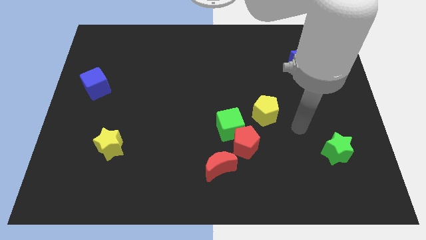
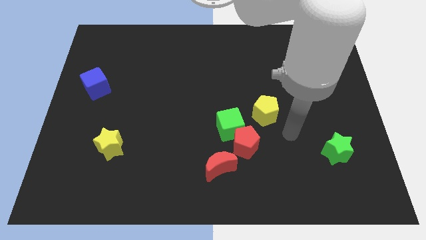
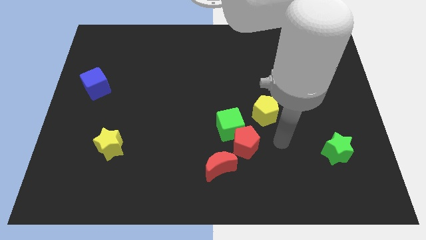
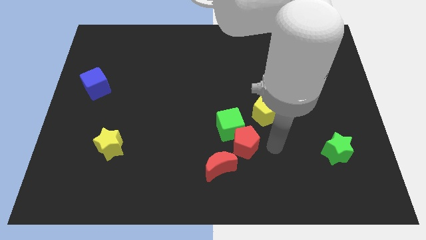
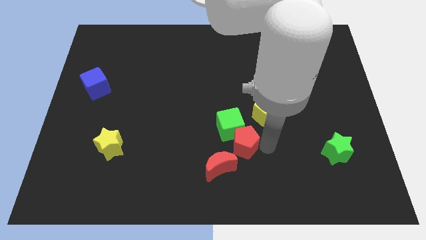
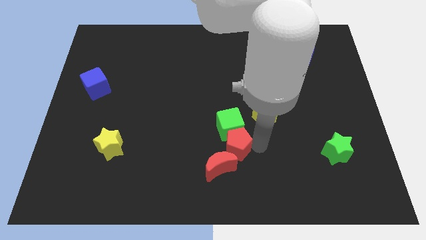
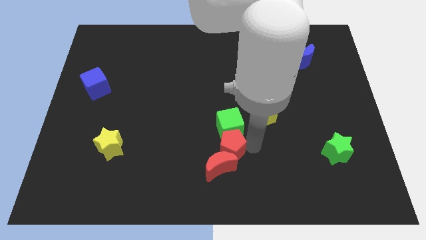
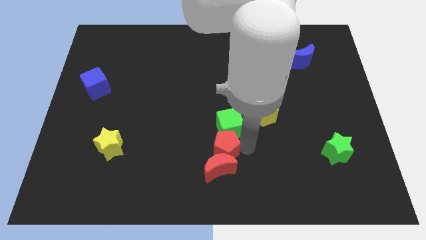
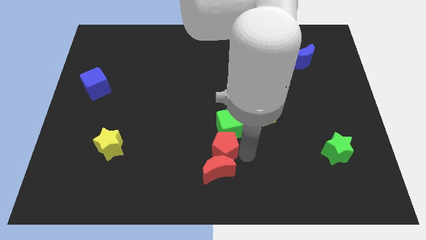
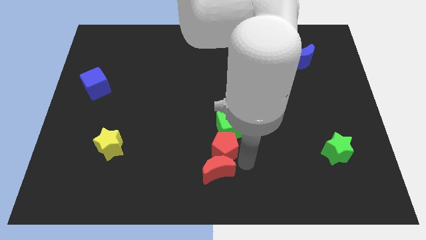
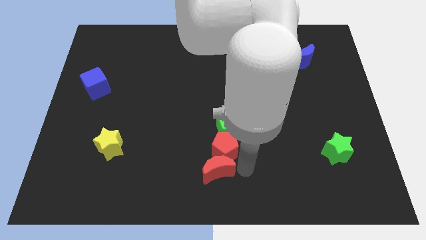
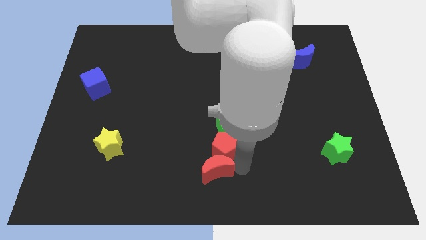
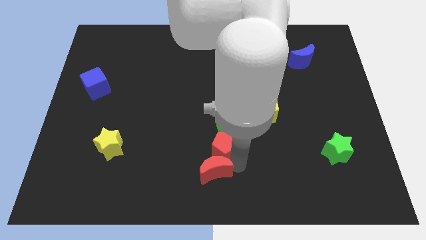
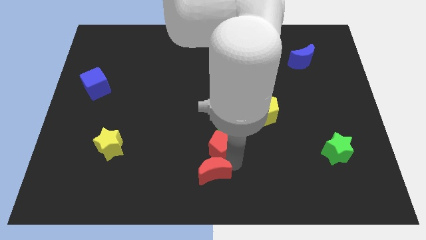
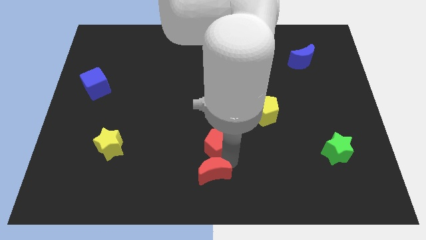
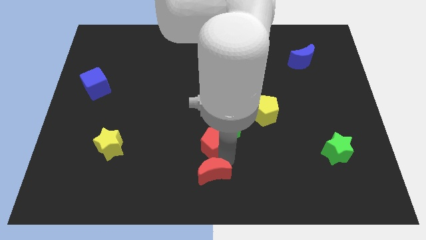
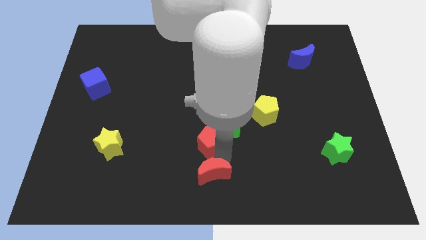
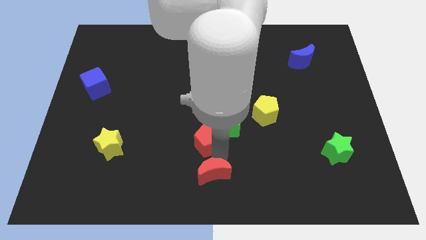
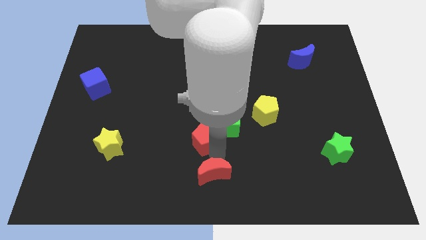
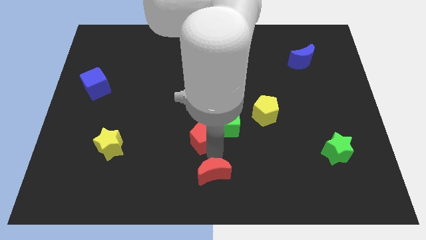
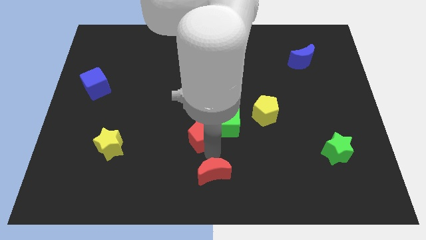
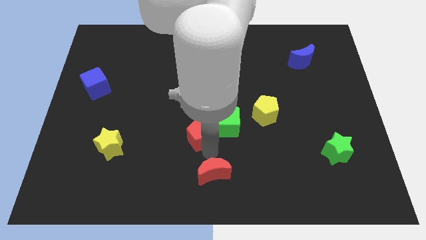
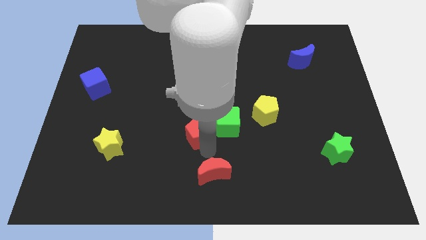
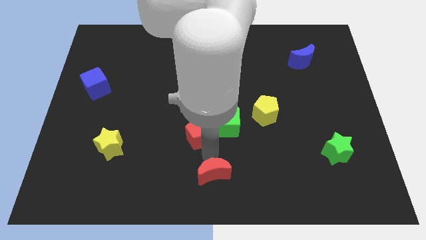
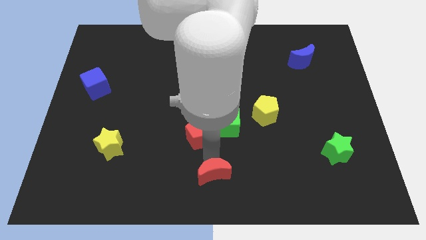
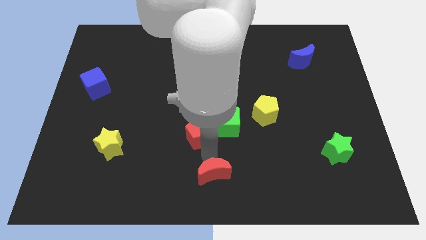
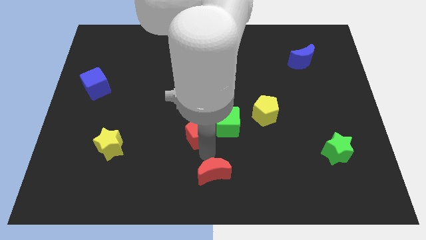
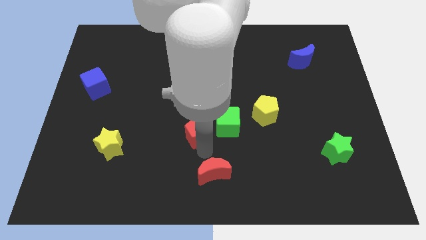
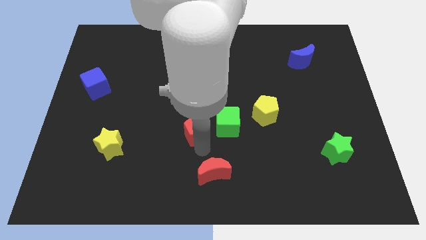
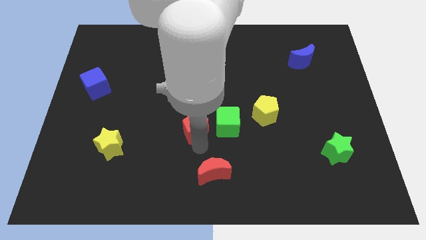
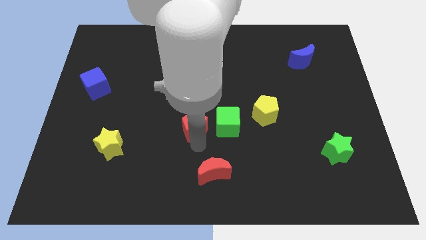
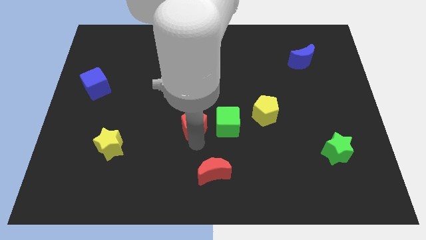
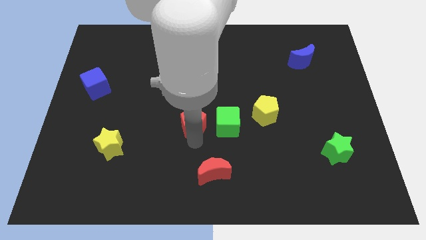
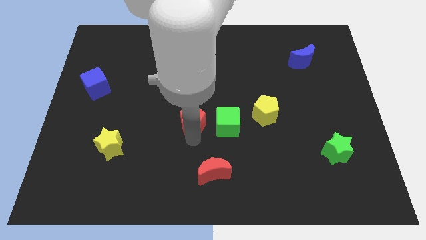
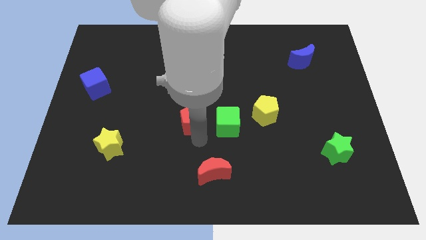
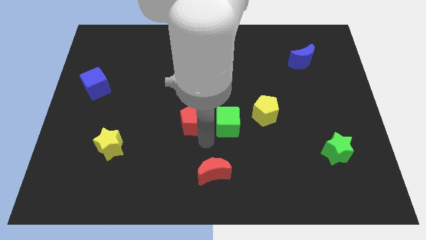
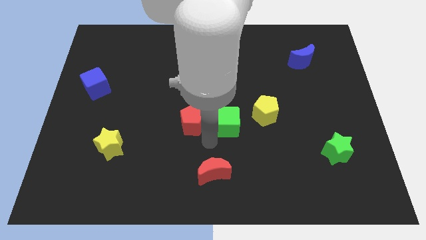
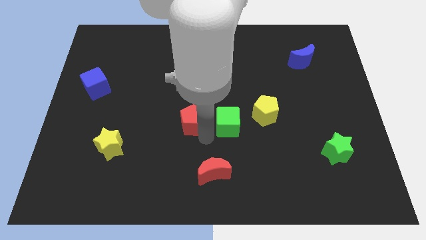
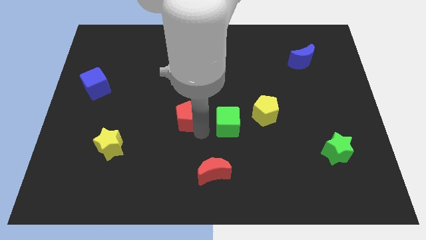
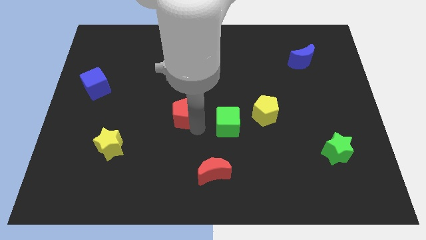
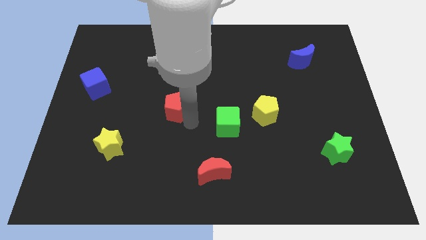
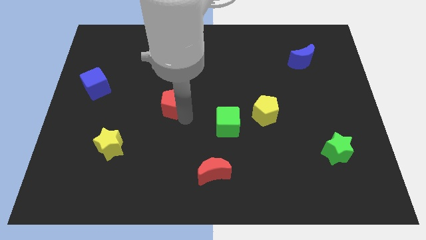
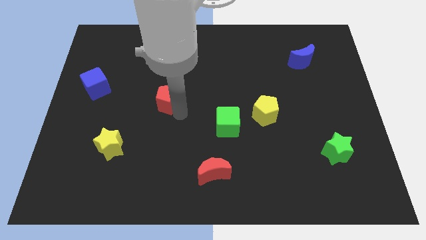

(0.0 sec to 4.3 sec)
move the red pentagon diagonally upwards and left

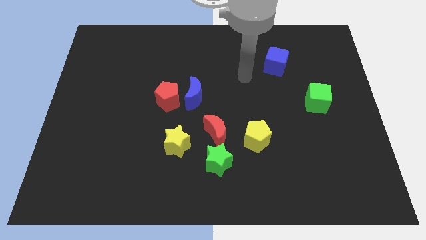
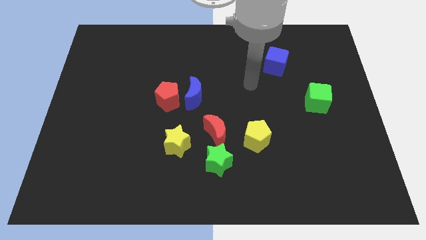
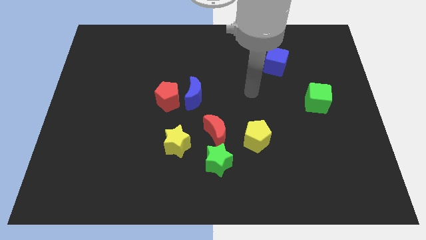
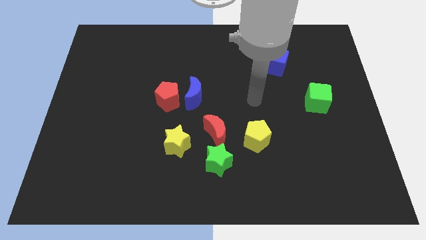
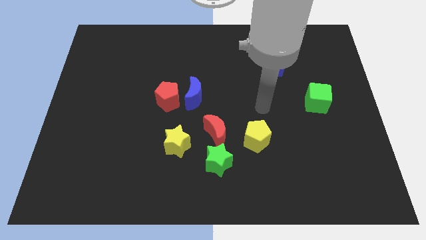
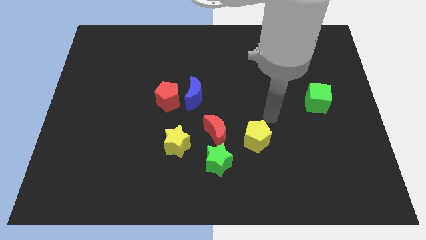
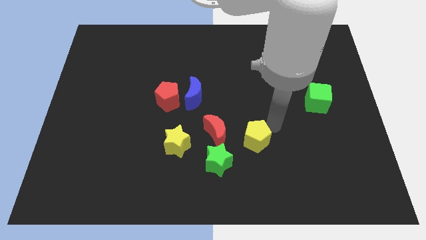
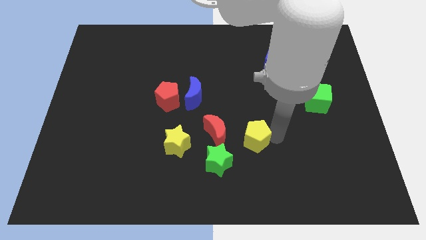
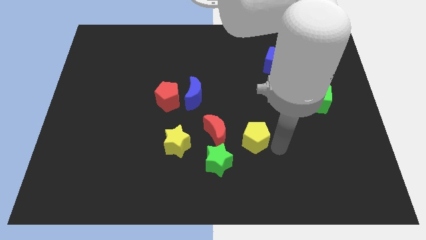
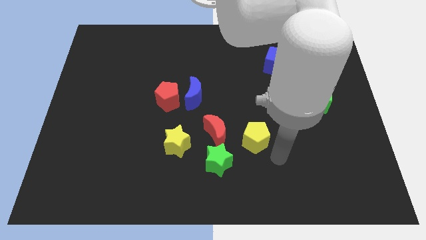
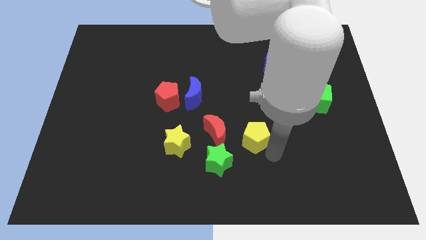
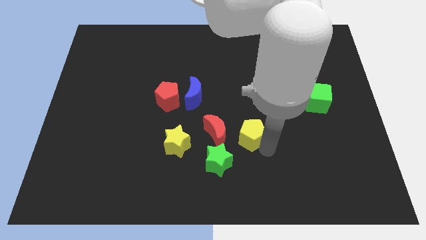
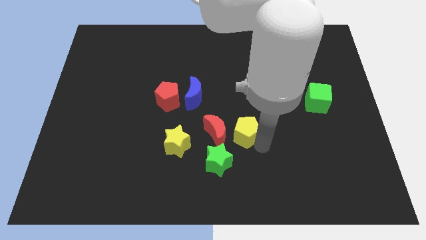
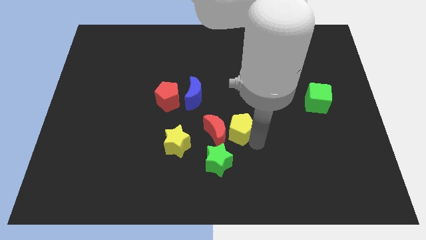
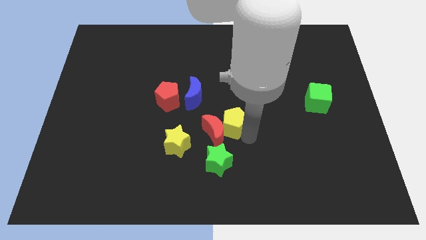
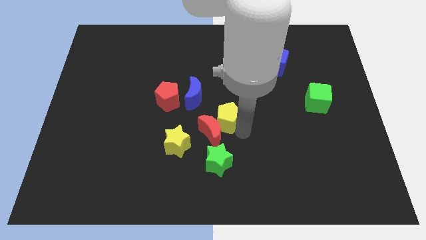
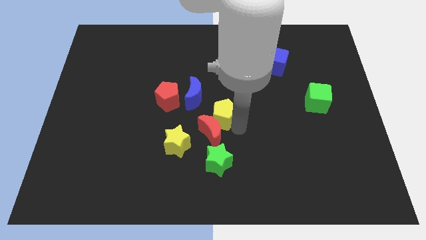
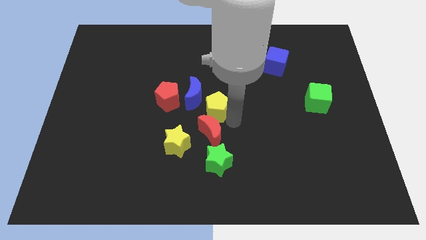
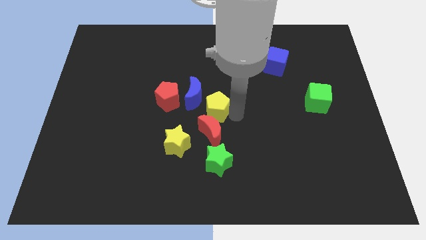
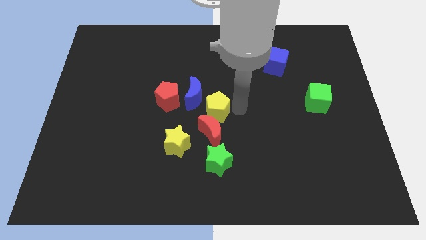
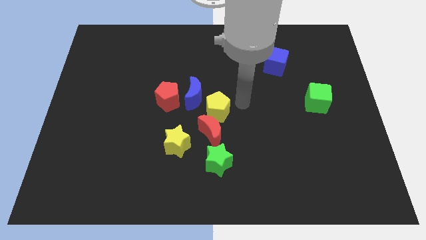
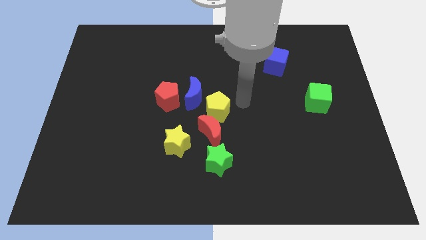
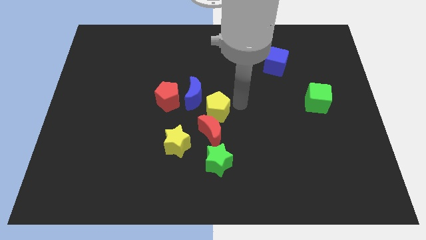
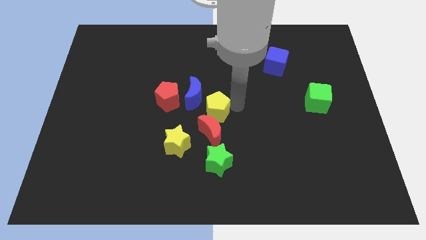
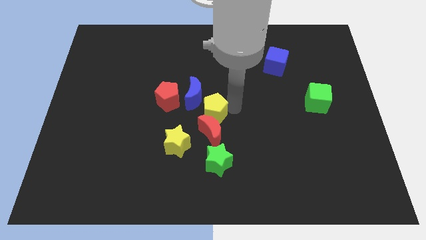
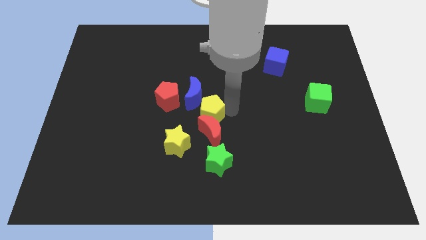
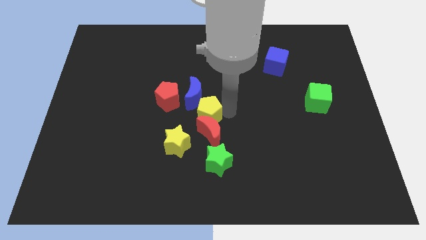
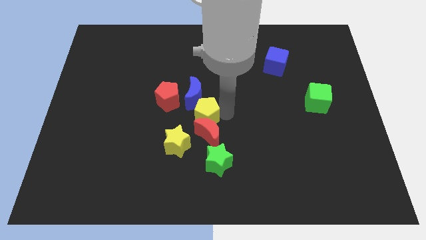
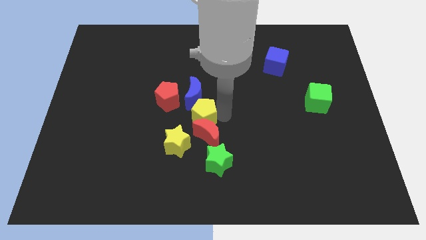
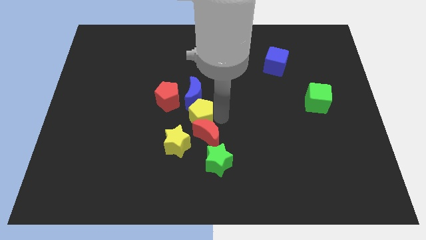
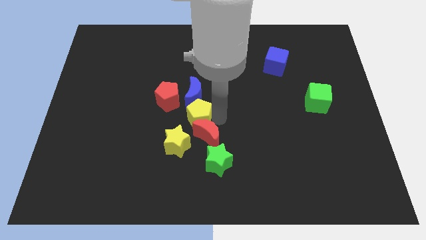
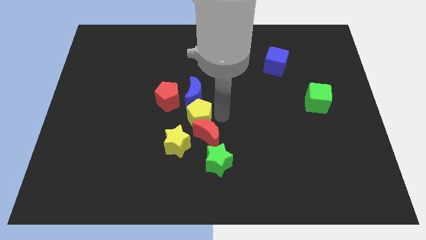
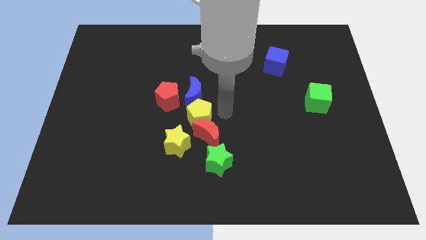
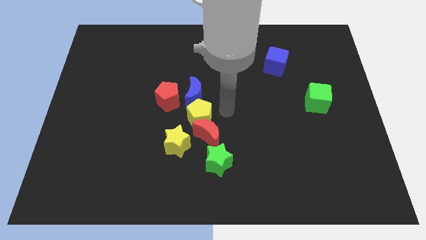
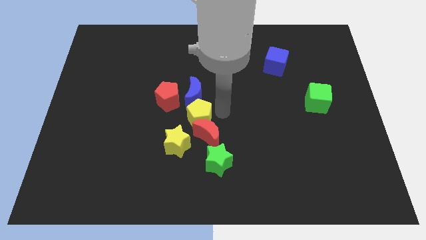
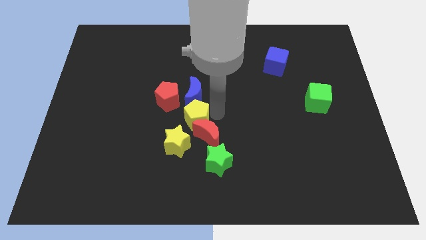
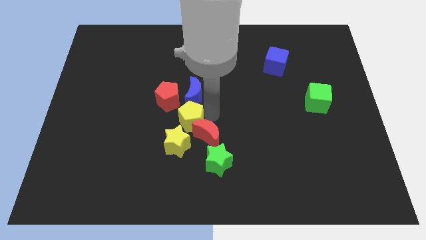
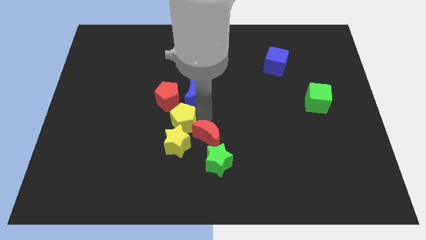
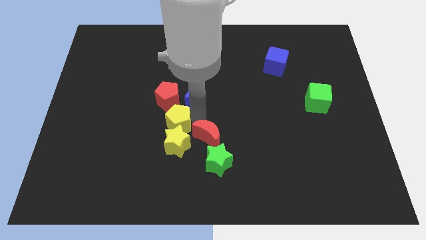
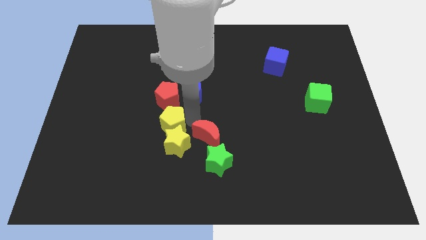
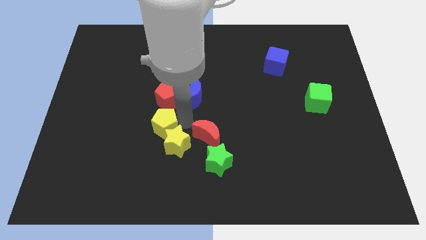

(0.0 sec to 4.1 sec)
move the yellow pentagon to the left

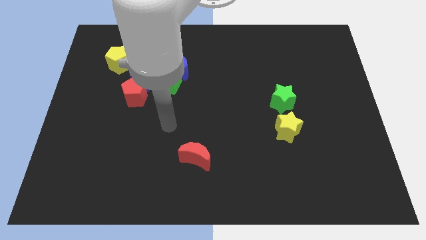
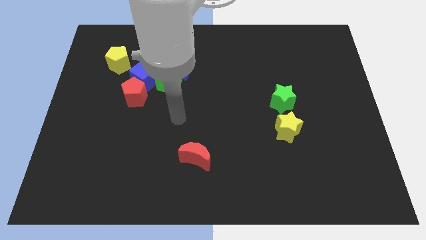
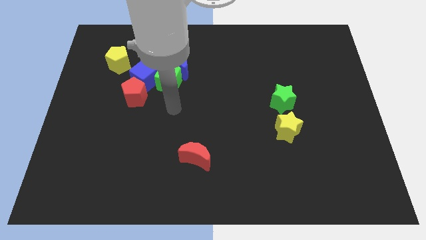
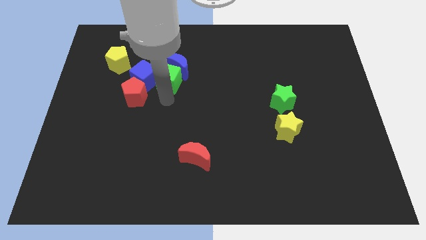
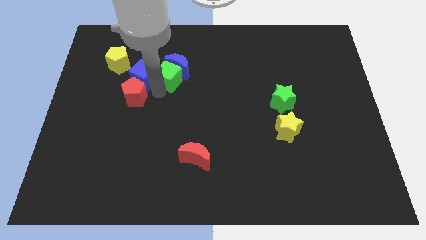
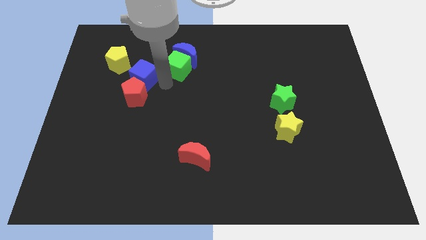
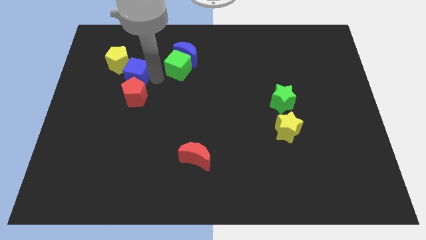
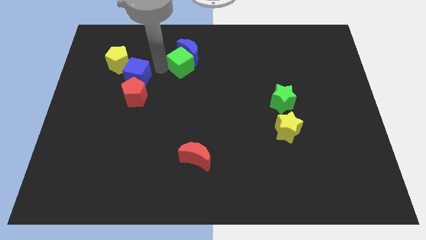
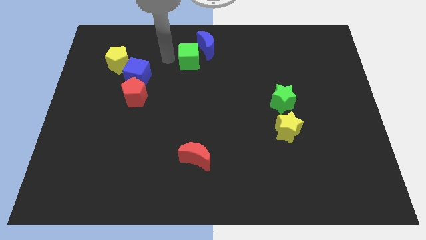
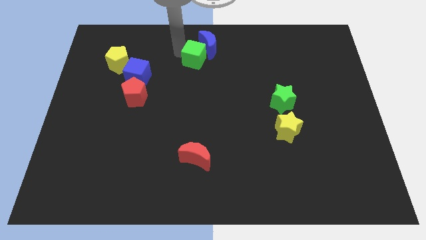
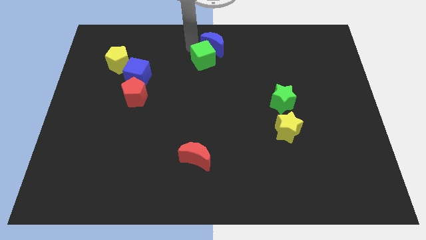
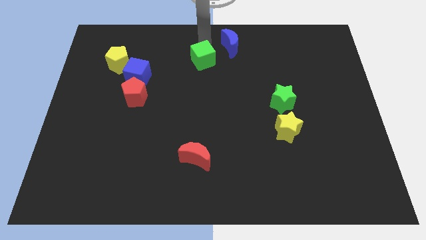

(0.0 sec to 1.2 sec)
move the blue moon somewhat right
